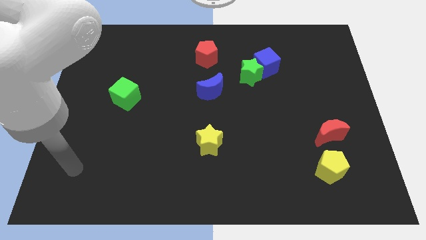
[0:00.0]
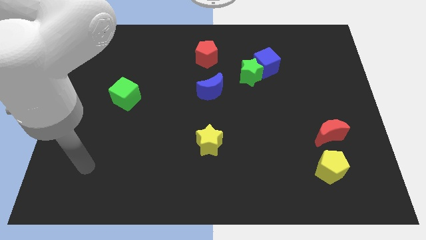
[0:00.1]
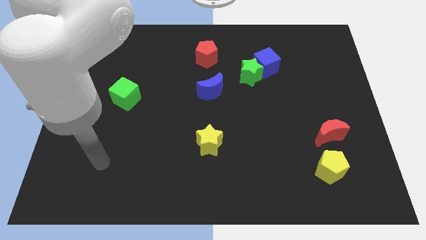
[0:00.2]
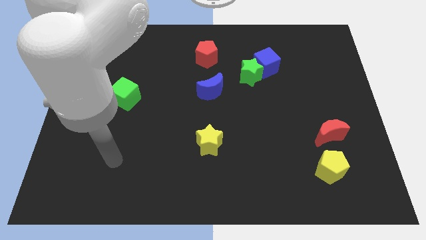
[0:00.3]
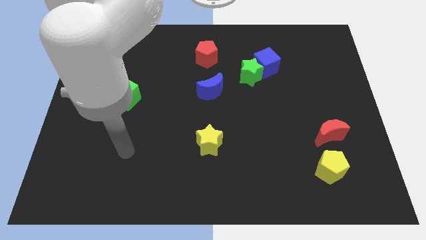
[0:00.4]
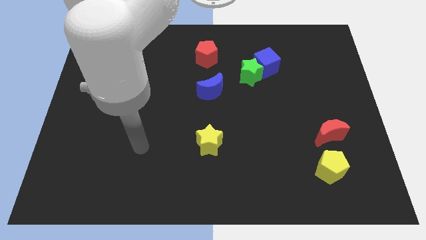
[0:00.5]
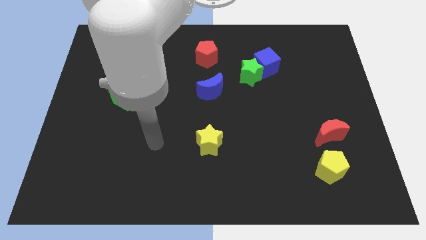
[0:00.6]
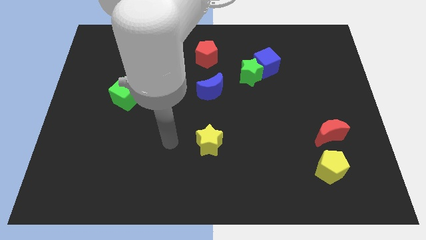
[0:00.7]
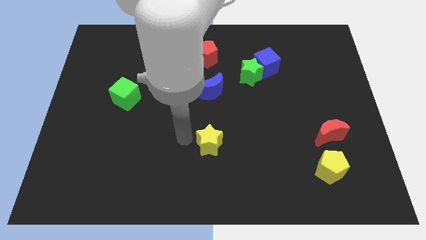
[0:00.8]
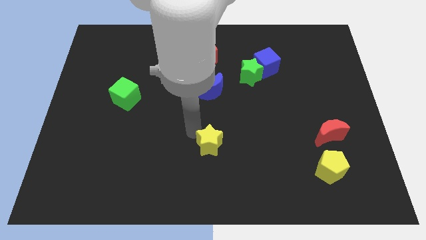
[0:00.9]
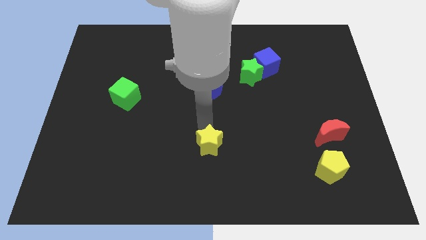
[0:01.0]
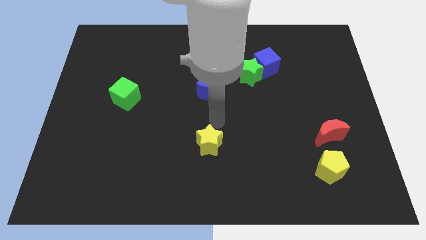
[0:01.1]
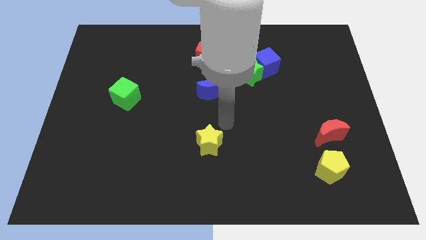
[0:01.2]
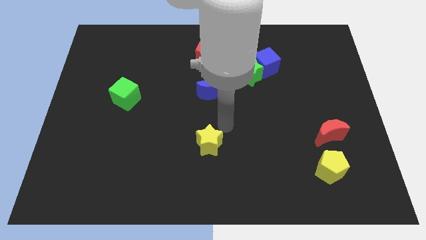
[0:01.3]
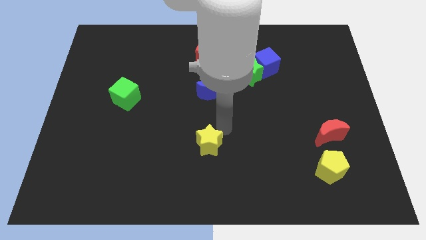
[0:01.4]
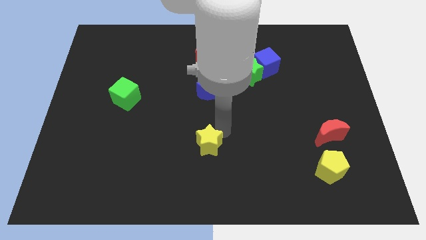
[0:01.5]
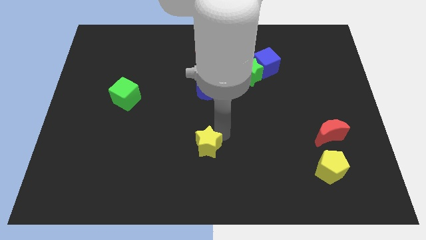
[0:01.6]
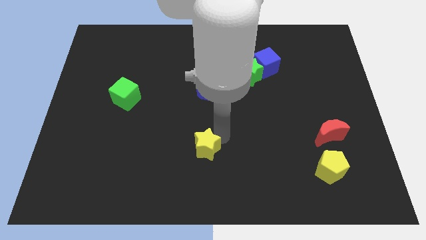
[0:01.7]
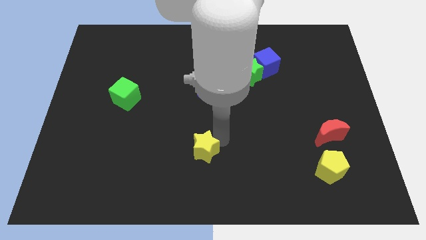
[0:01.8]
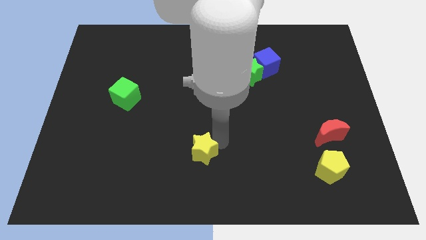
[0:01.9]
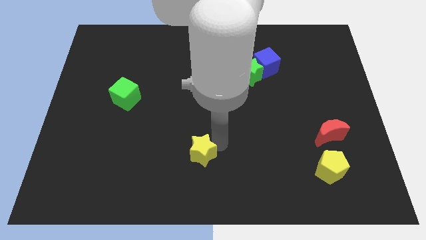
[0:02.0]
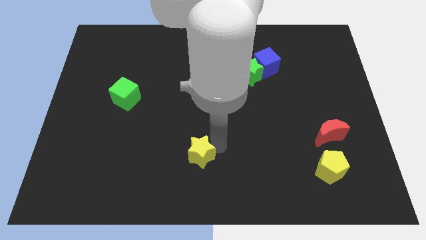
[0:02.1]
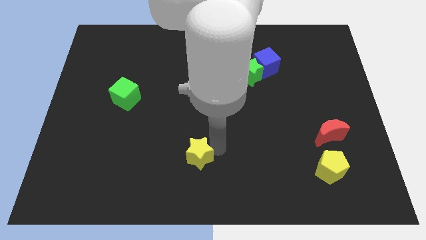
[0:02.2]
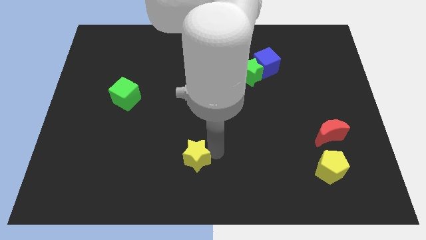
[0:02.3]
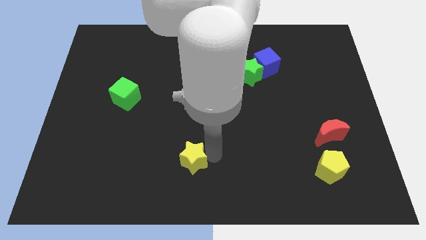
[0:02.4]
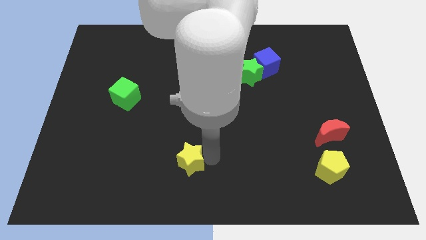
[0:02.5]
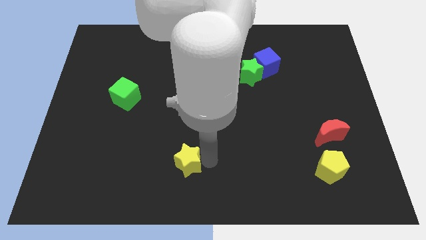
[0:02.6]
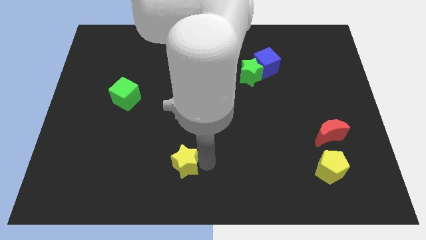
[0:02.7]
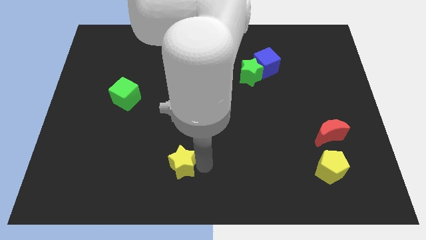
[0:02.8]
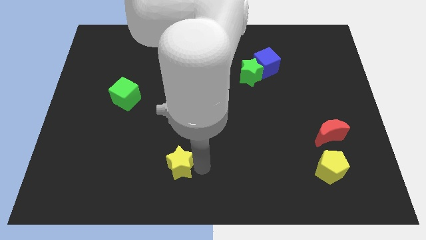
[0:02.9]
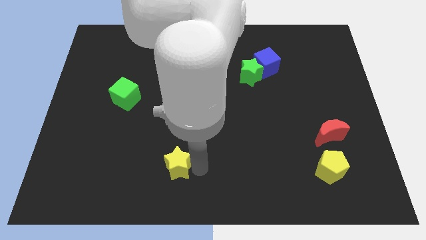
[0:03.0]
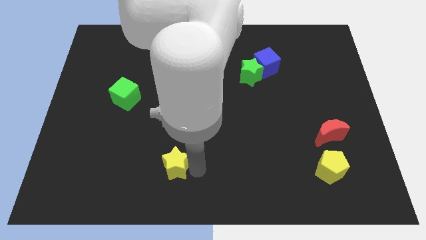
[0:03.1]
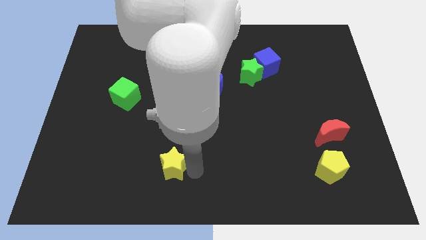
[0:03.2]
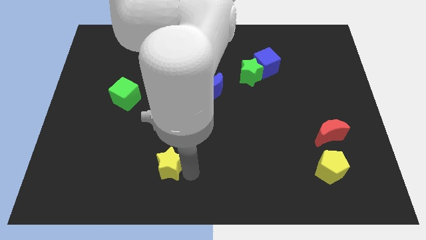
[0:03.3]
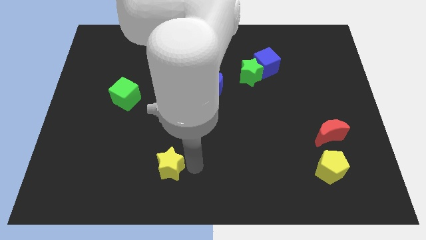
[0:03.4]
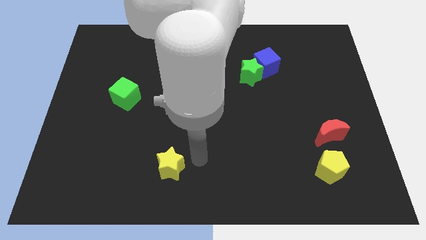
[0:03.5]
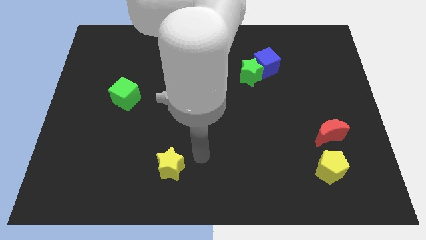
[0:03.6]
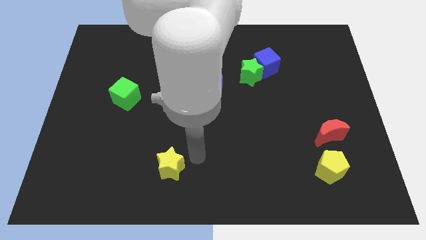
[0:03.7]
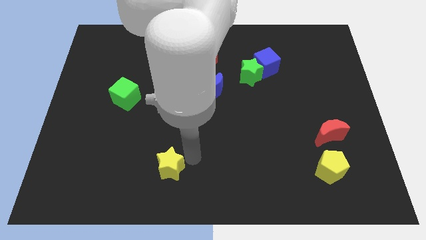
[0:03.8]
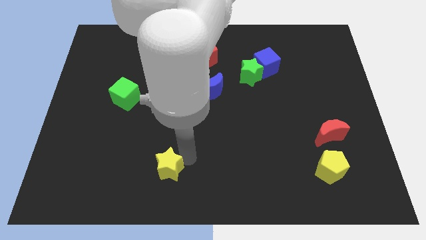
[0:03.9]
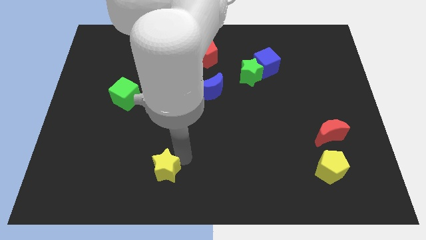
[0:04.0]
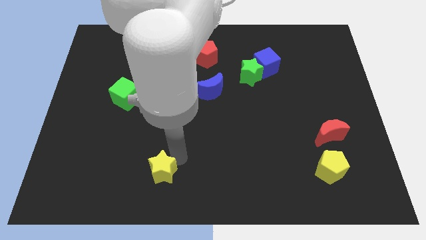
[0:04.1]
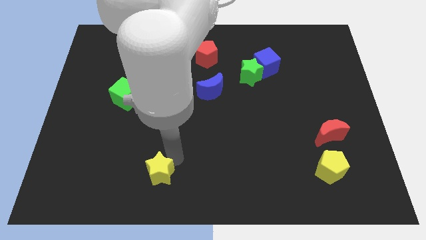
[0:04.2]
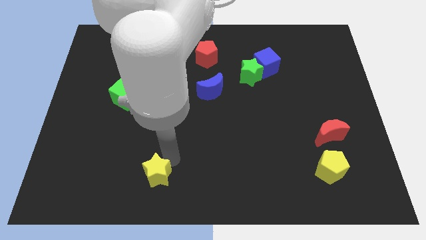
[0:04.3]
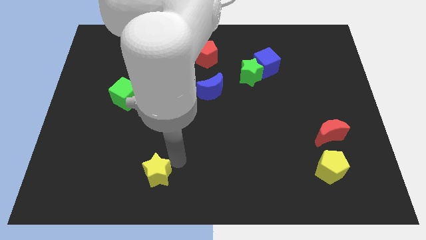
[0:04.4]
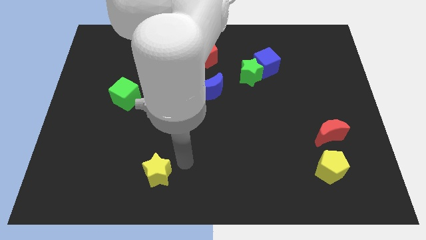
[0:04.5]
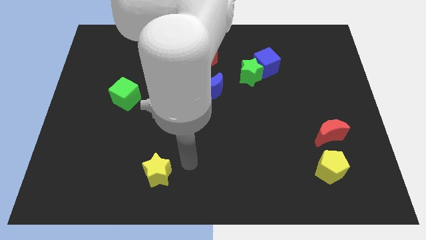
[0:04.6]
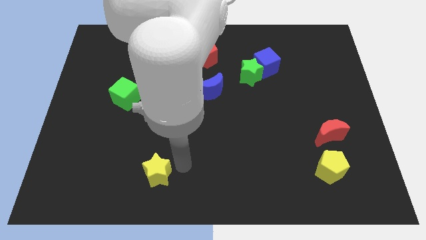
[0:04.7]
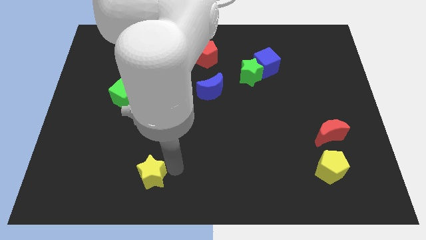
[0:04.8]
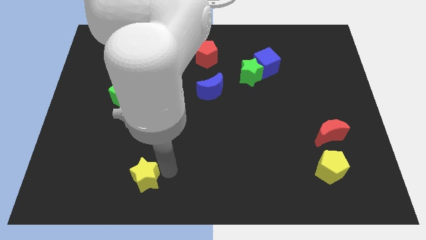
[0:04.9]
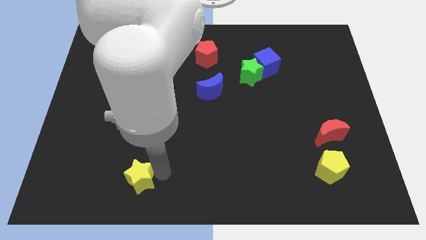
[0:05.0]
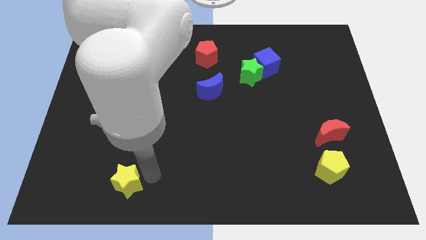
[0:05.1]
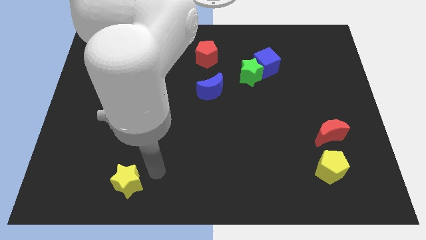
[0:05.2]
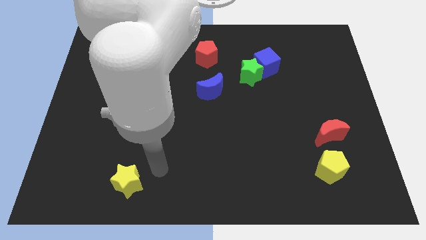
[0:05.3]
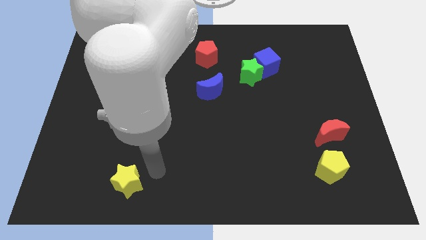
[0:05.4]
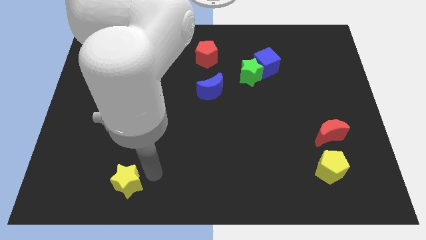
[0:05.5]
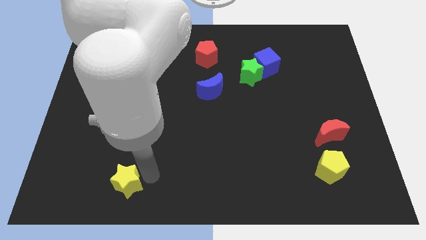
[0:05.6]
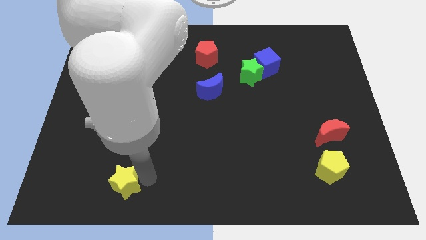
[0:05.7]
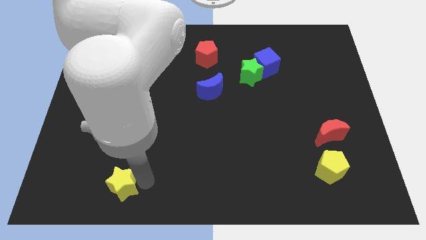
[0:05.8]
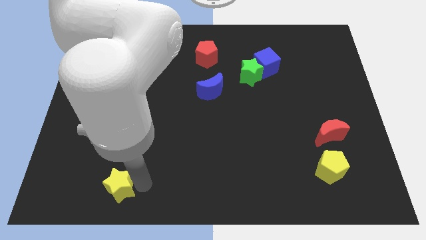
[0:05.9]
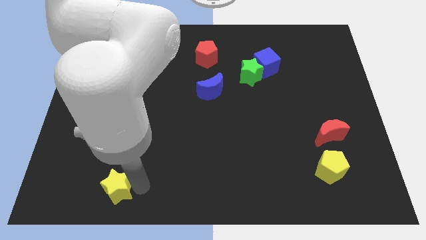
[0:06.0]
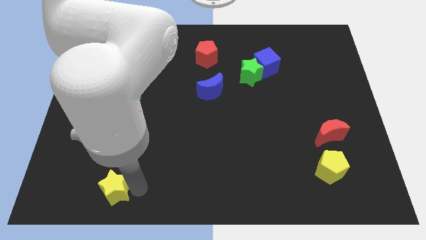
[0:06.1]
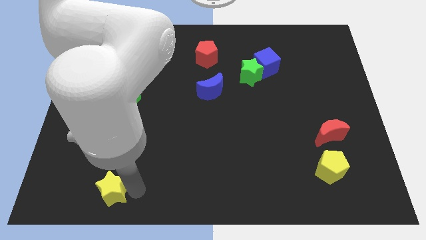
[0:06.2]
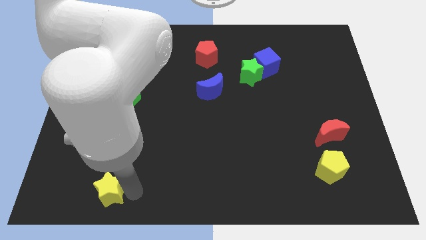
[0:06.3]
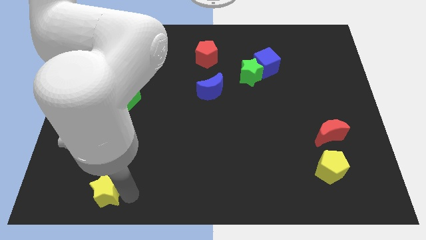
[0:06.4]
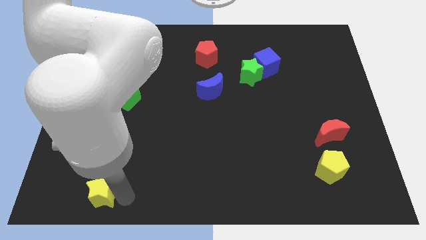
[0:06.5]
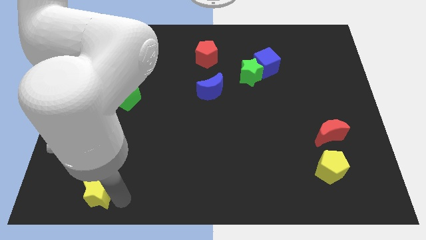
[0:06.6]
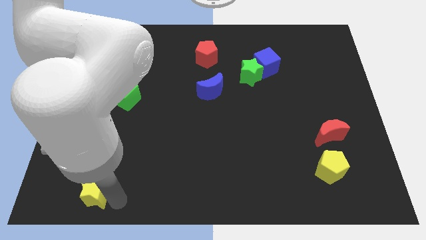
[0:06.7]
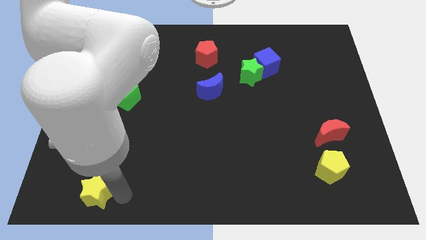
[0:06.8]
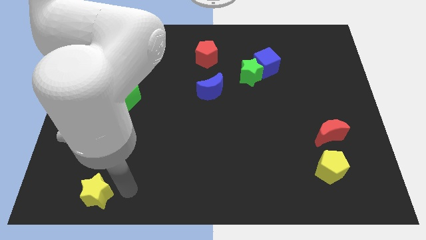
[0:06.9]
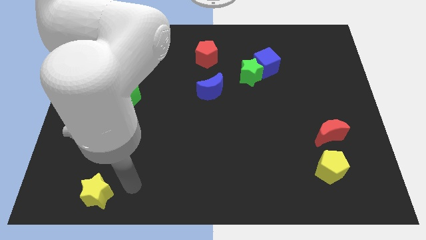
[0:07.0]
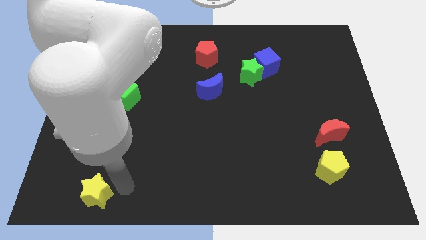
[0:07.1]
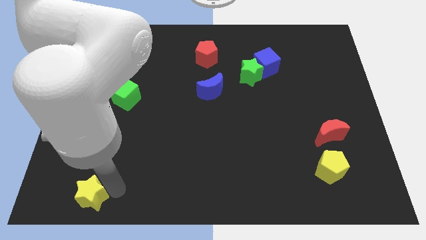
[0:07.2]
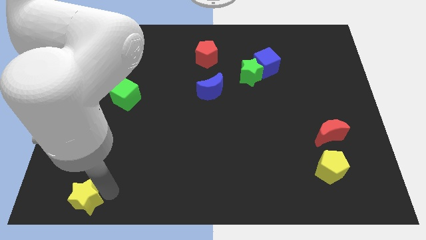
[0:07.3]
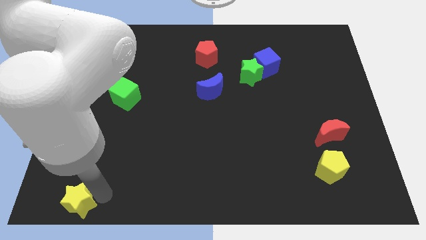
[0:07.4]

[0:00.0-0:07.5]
slide the yellow star to the bottom left

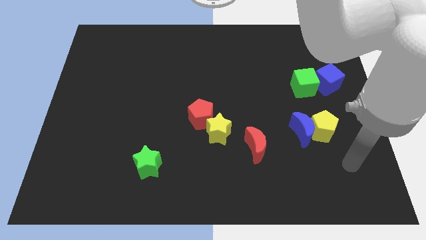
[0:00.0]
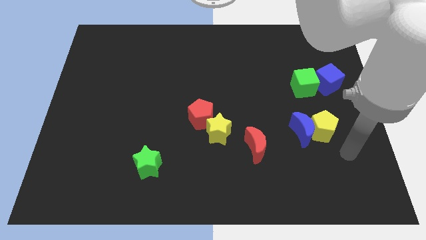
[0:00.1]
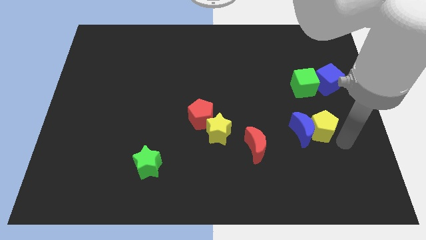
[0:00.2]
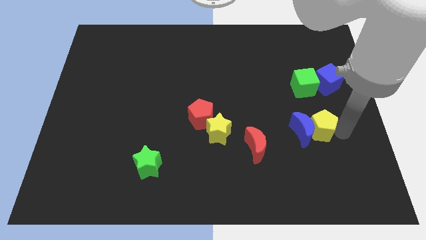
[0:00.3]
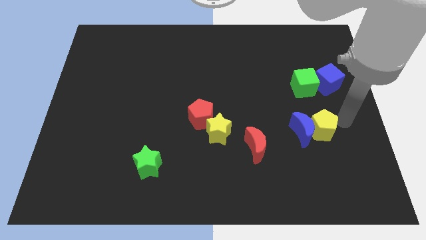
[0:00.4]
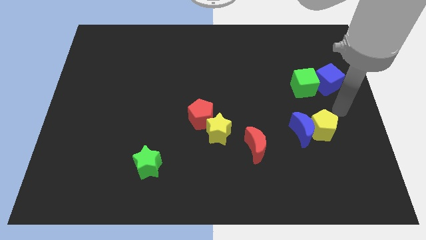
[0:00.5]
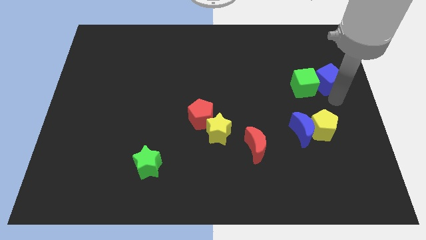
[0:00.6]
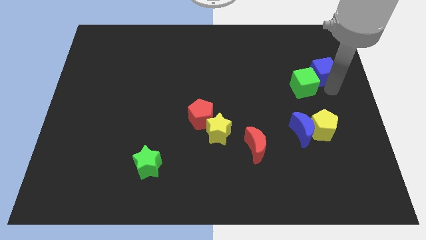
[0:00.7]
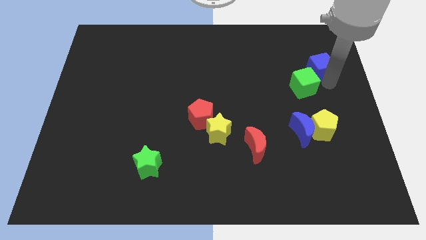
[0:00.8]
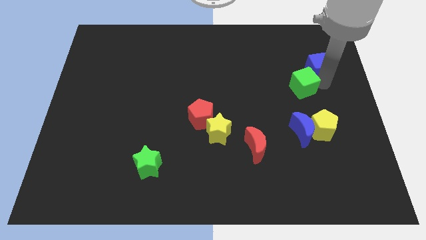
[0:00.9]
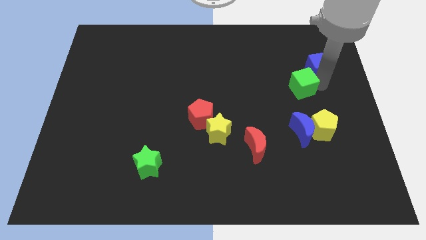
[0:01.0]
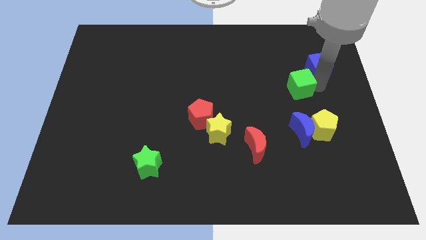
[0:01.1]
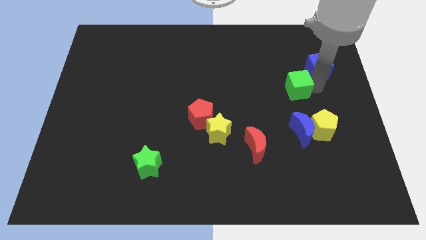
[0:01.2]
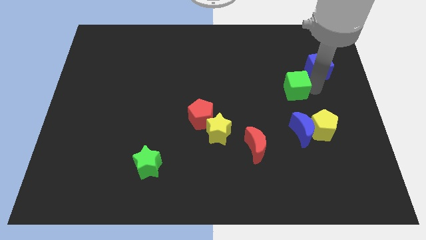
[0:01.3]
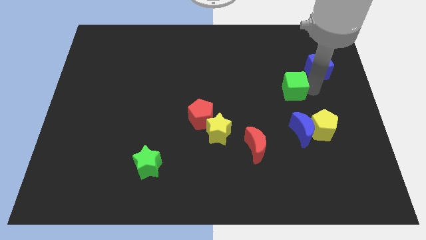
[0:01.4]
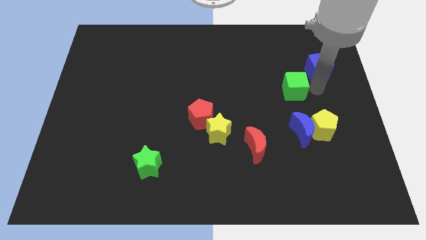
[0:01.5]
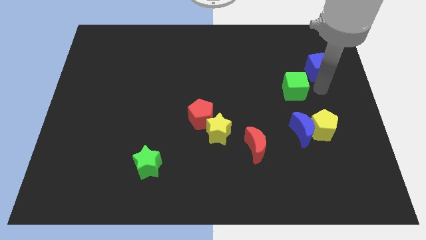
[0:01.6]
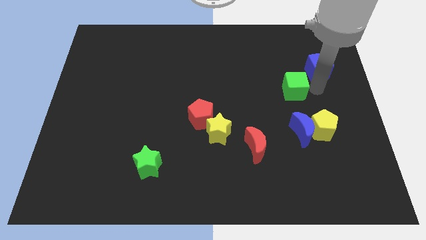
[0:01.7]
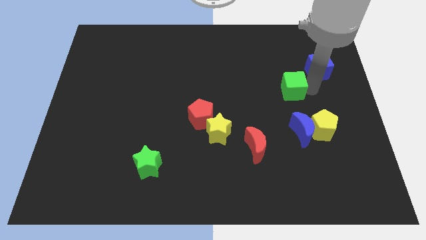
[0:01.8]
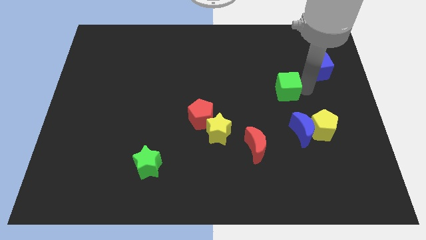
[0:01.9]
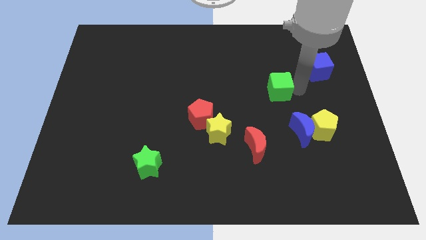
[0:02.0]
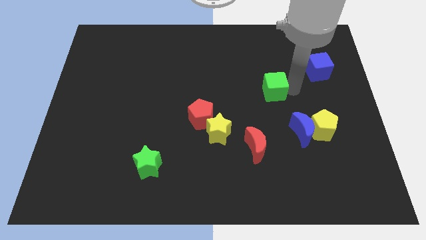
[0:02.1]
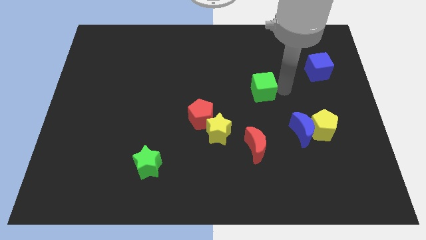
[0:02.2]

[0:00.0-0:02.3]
slide the green cube to the middle of the board
